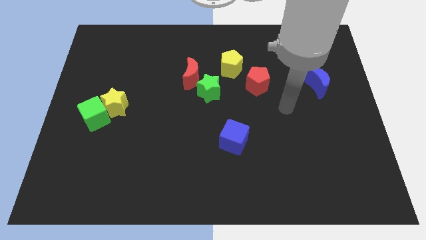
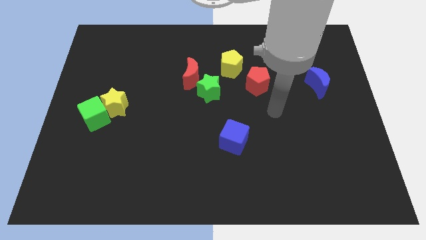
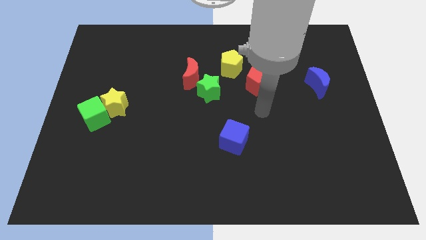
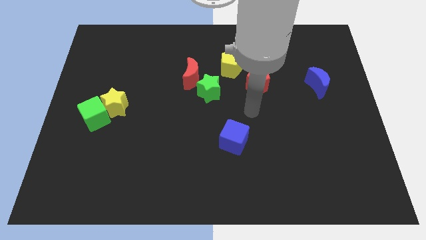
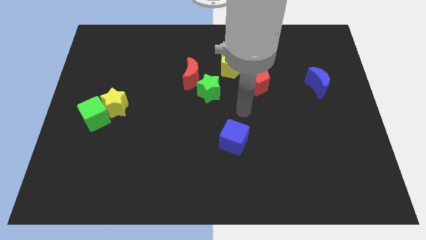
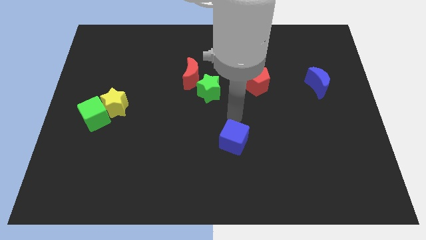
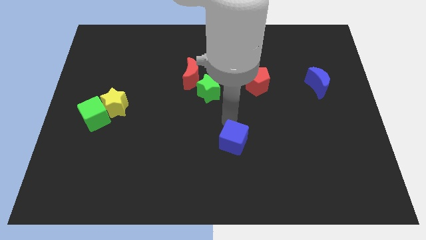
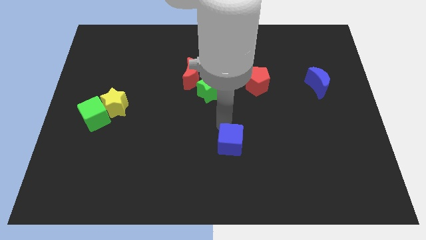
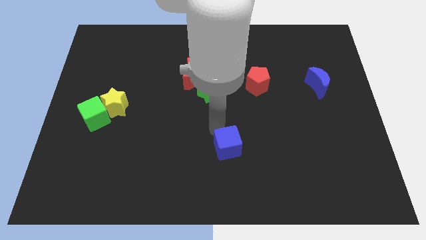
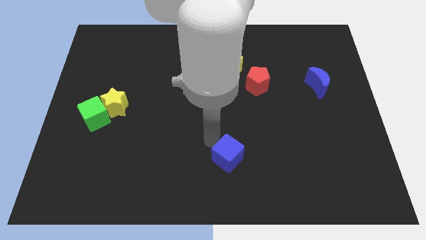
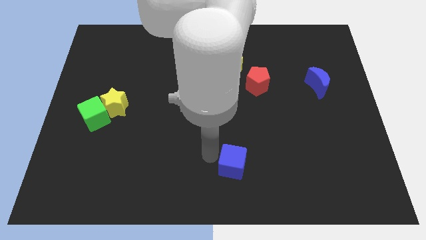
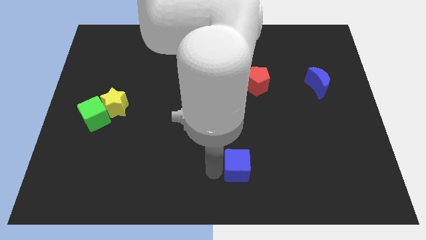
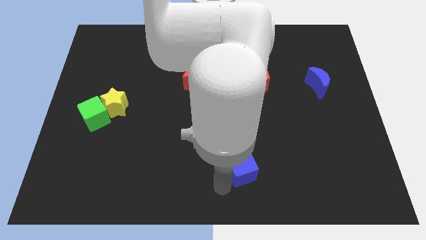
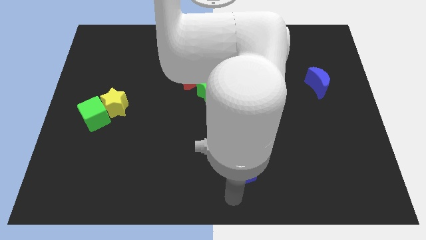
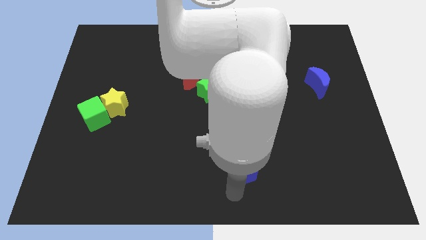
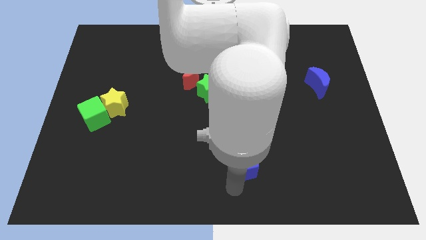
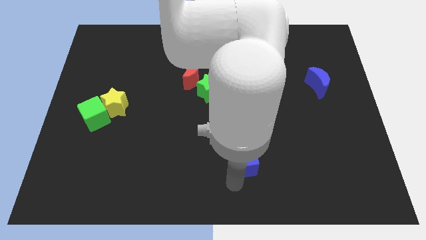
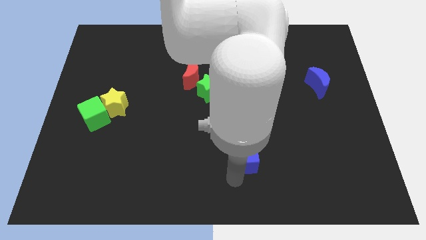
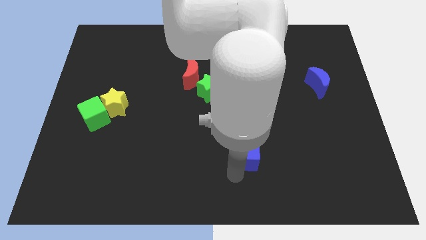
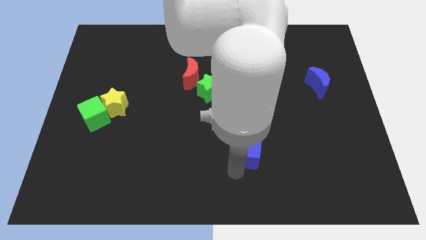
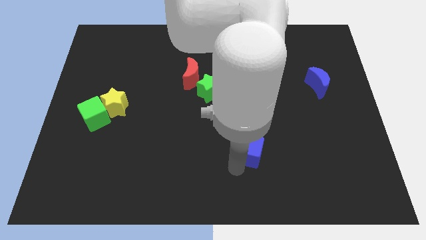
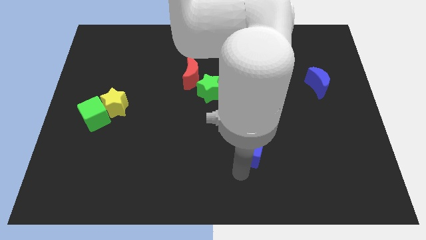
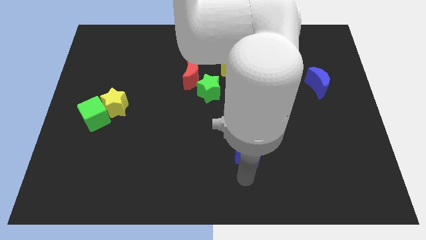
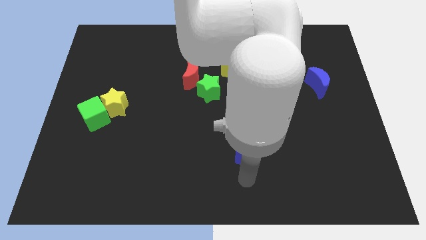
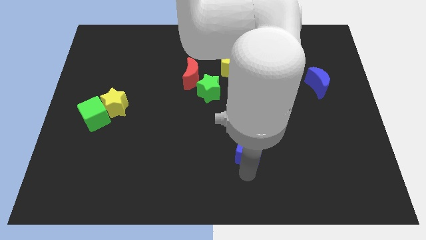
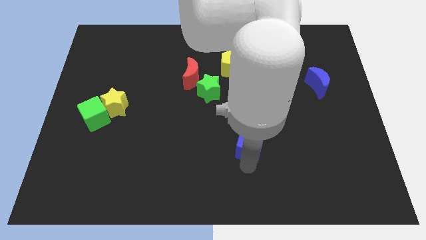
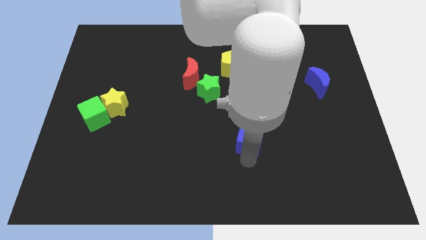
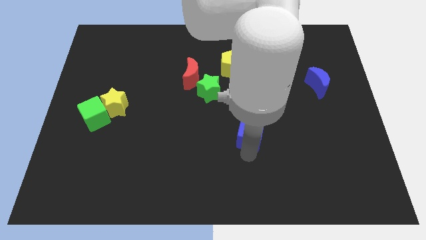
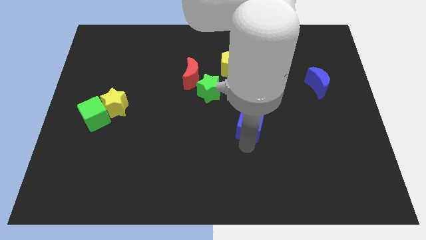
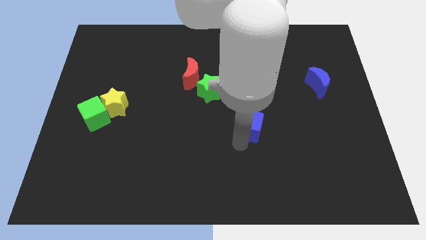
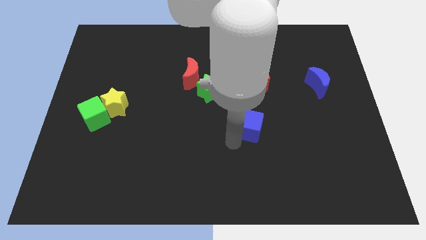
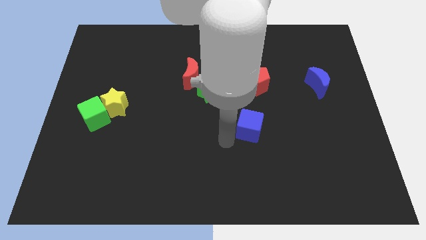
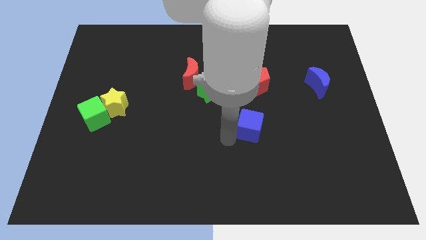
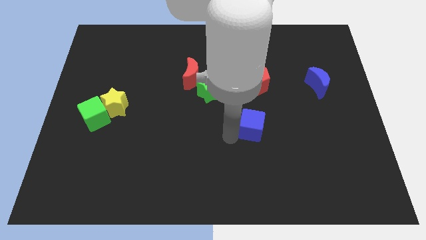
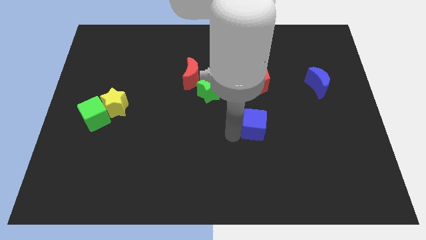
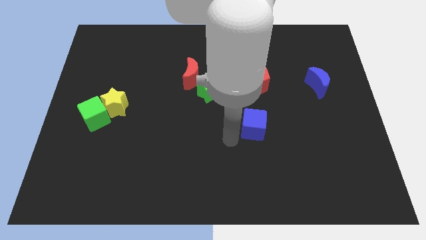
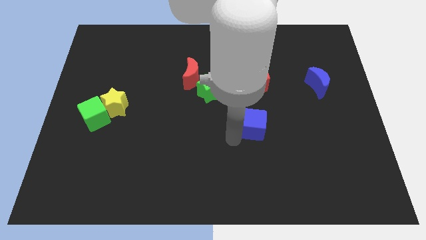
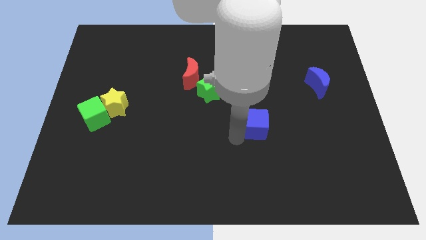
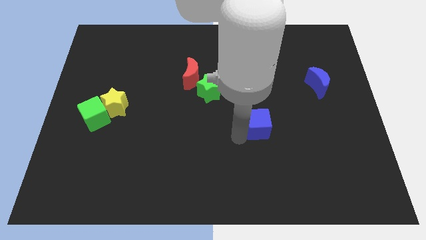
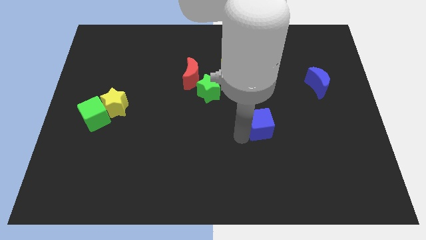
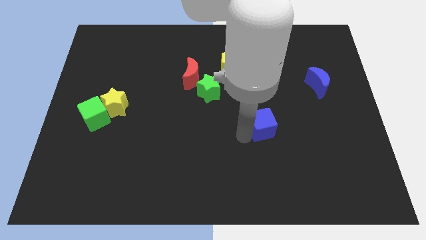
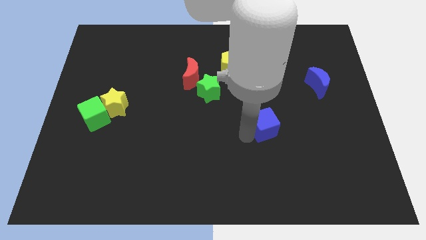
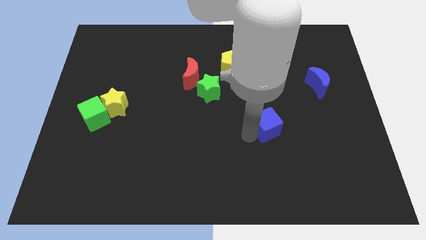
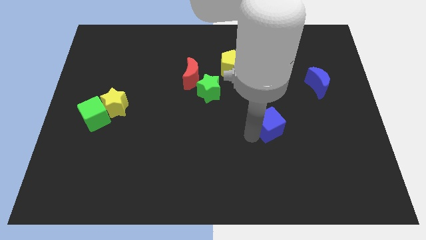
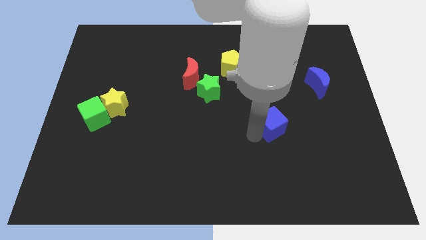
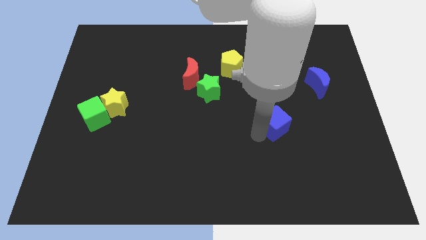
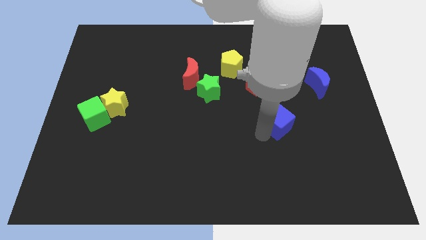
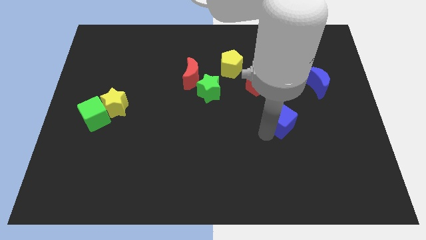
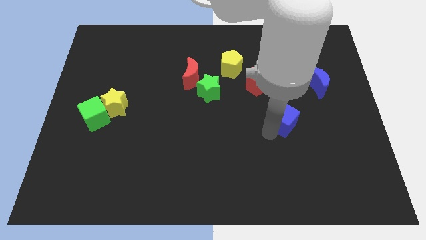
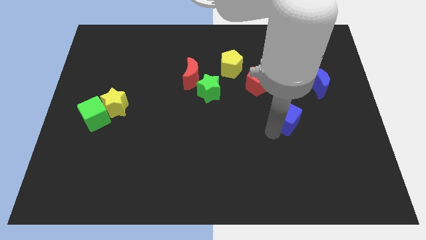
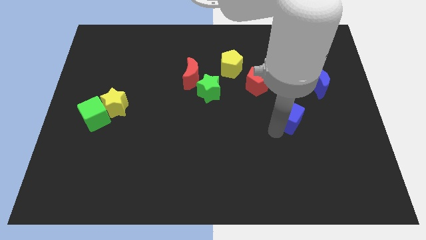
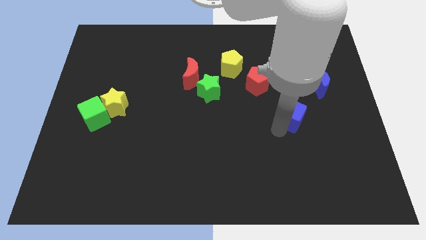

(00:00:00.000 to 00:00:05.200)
slide the blue cube to the bottom right side of the red pentagon

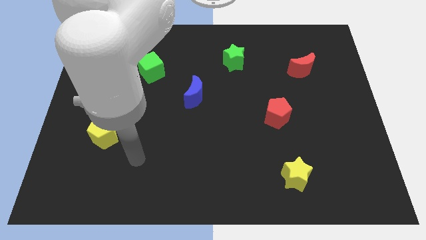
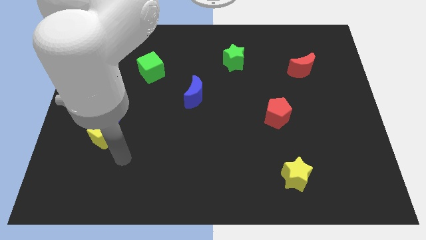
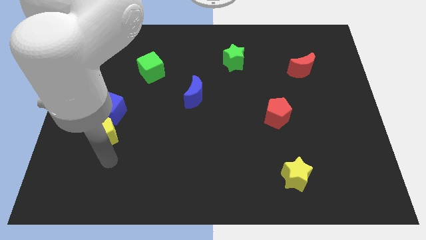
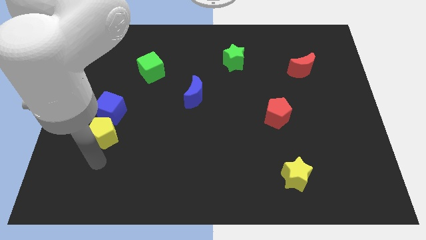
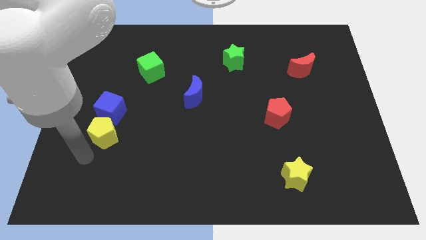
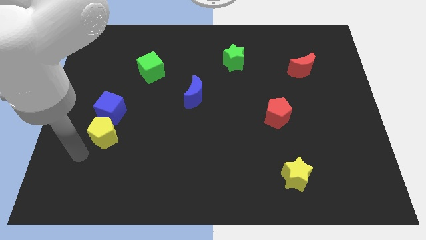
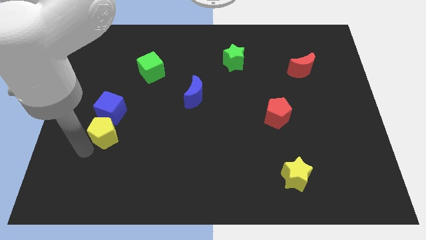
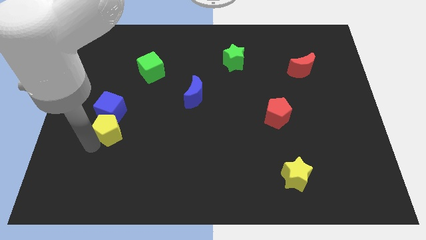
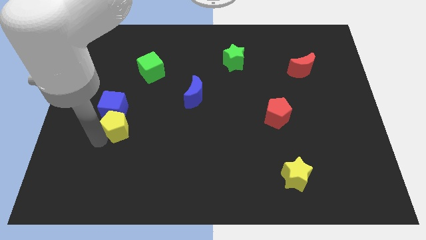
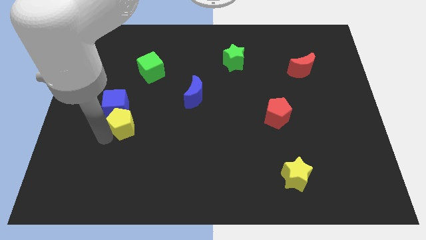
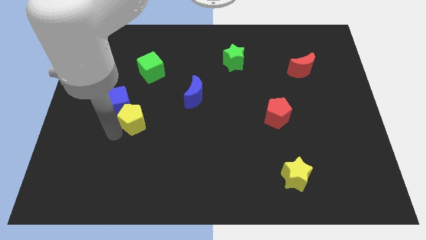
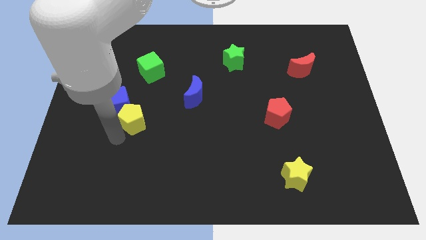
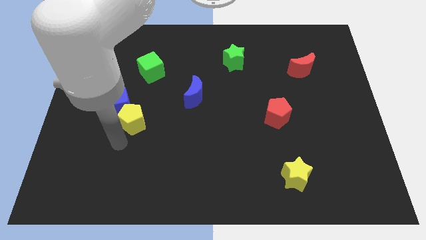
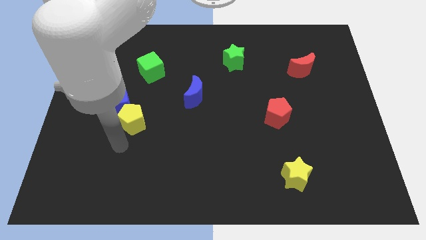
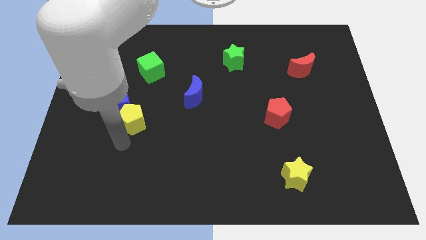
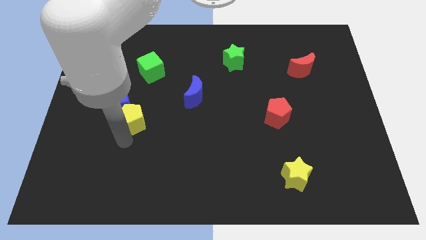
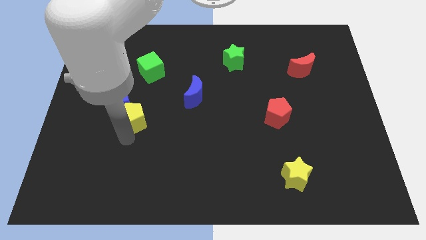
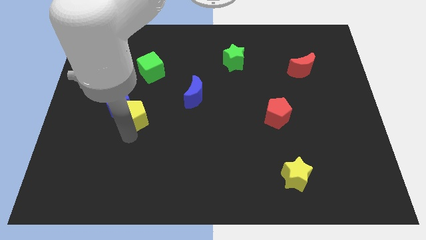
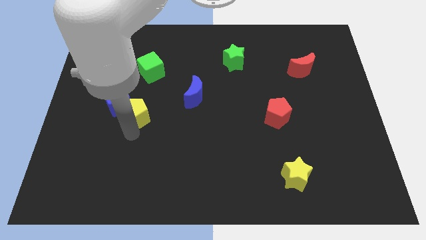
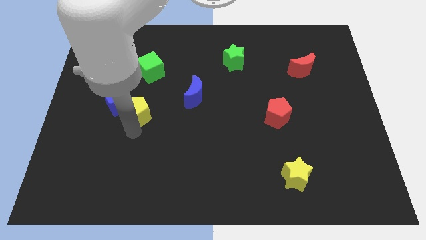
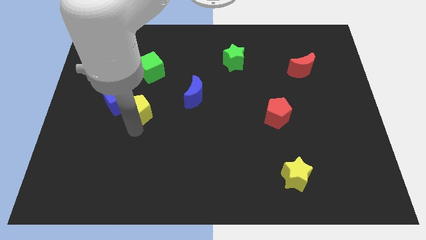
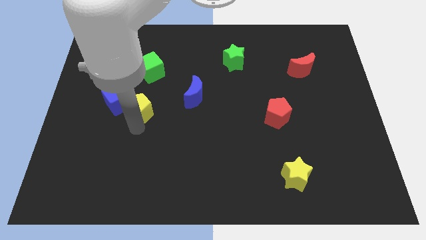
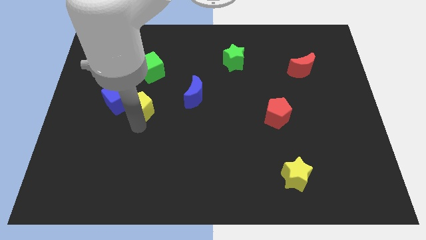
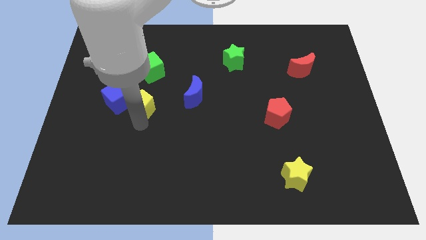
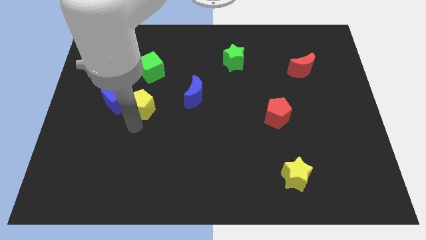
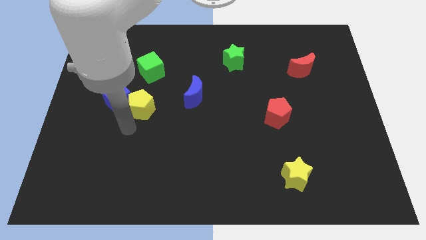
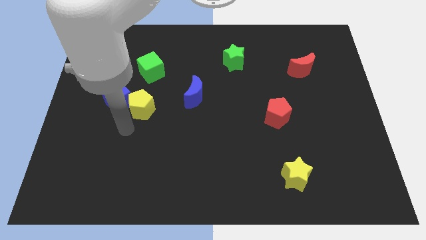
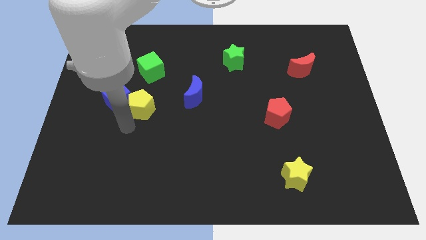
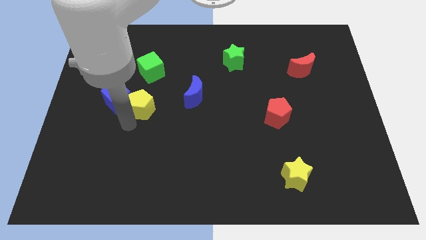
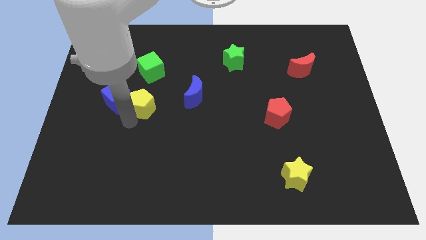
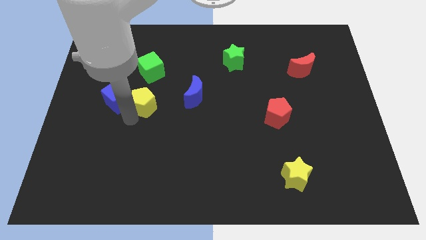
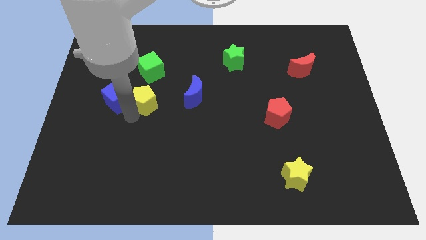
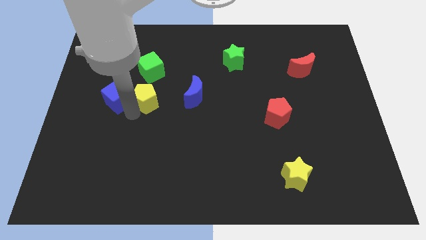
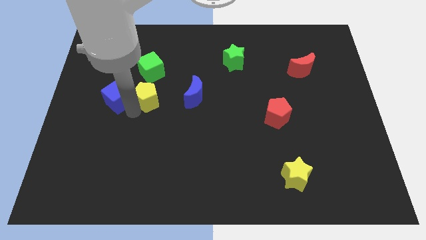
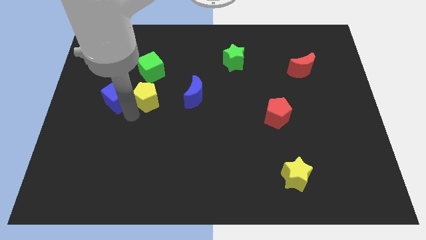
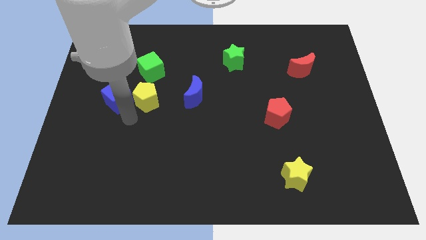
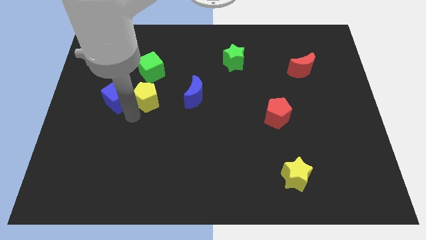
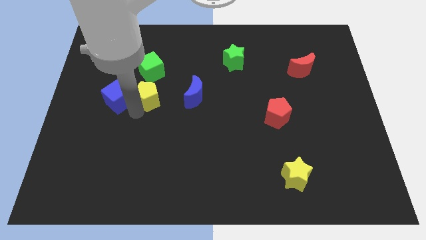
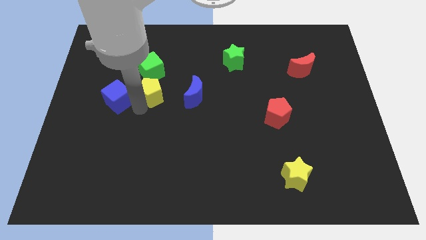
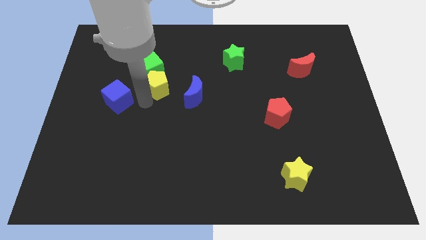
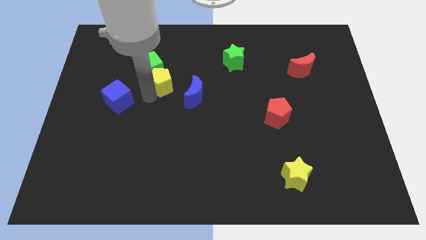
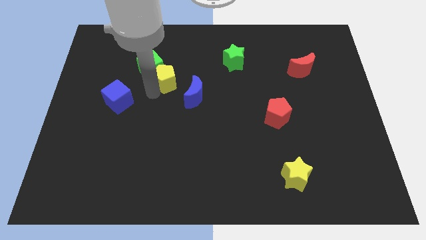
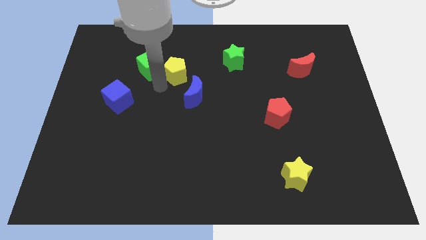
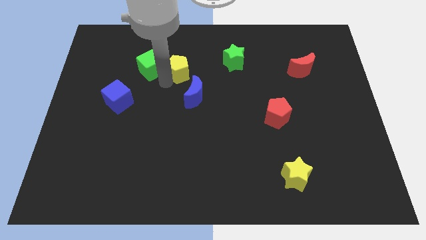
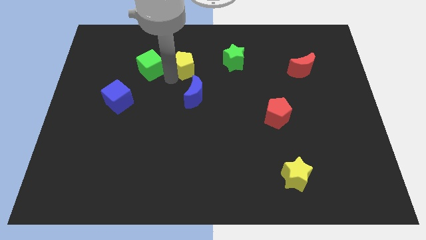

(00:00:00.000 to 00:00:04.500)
put the yellow pentagon to the left side of the green star
